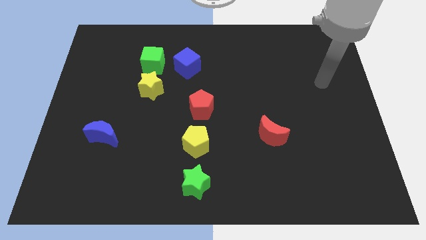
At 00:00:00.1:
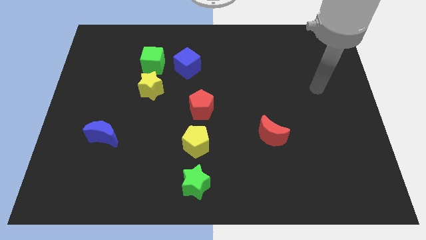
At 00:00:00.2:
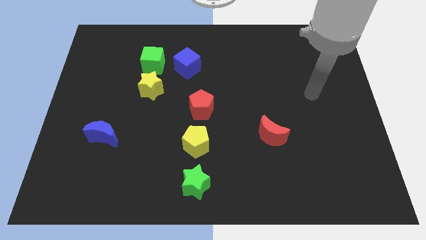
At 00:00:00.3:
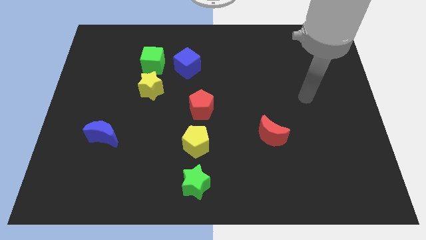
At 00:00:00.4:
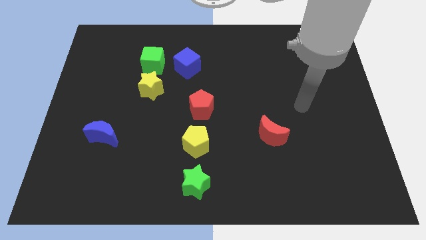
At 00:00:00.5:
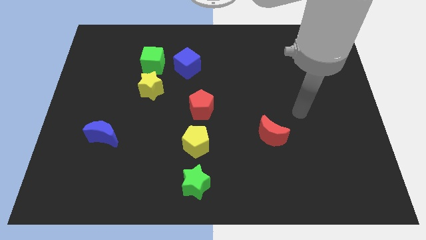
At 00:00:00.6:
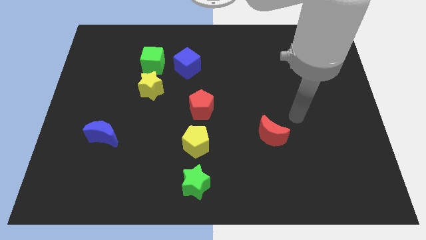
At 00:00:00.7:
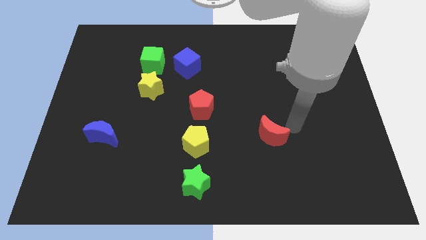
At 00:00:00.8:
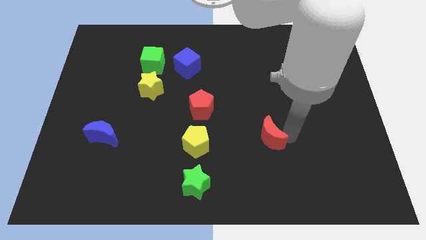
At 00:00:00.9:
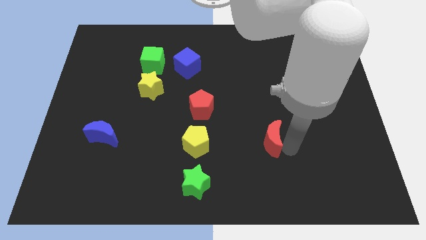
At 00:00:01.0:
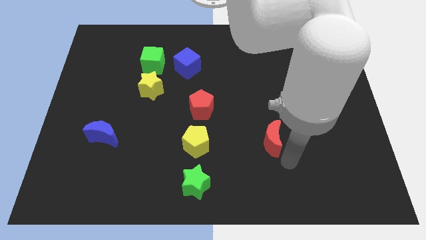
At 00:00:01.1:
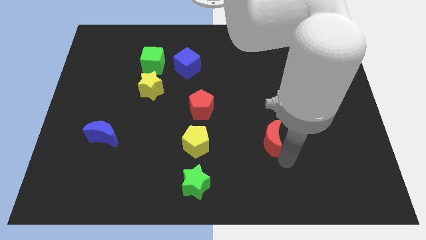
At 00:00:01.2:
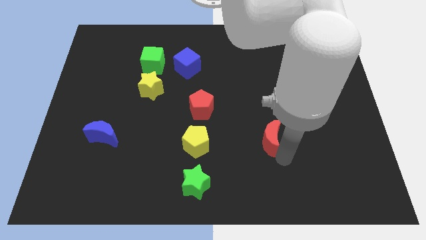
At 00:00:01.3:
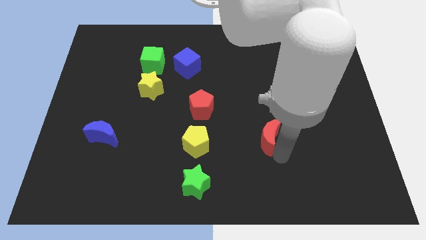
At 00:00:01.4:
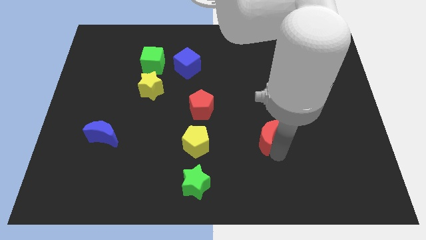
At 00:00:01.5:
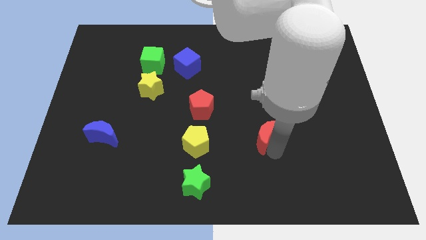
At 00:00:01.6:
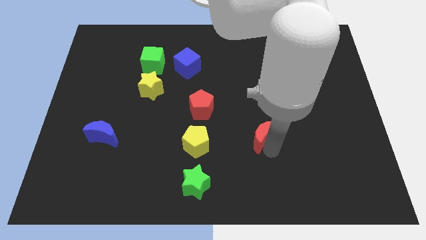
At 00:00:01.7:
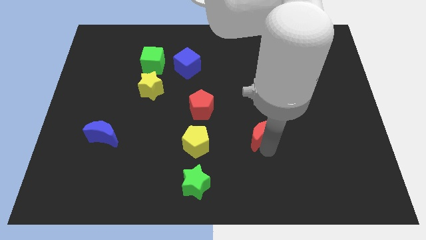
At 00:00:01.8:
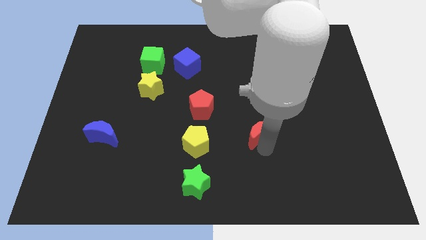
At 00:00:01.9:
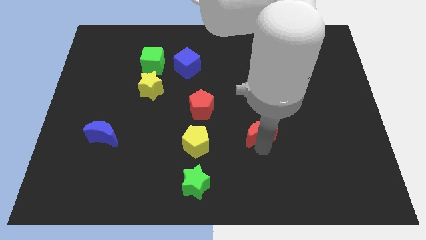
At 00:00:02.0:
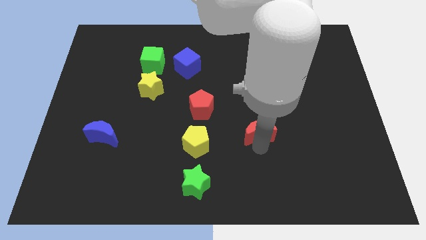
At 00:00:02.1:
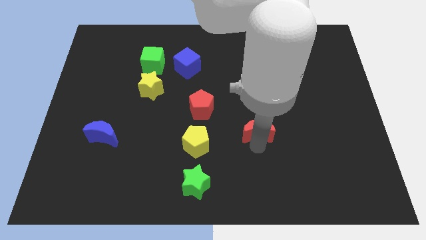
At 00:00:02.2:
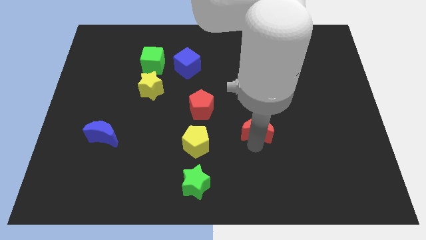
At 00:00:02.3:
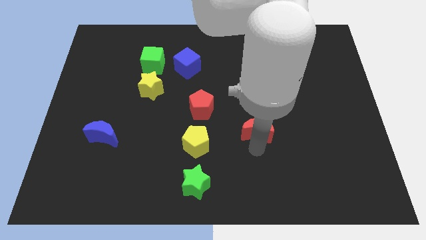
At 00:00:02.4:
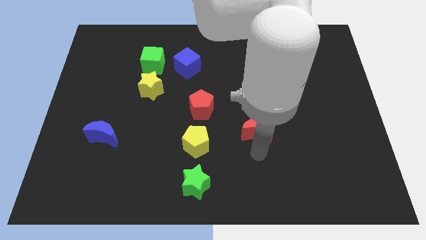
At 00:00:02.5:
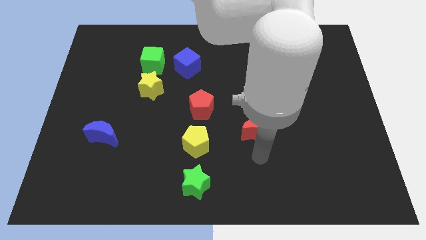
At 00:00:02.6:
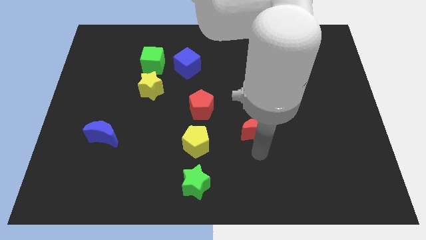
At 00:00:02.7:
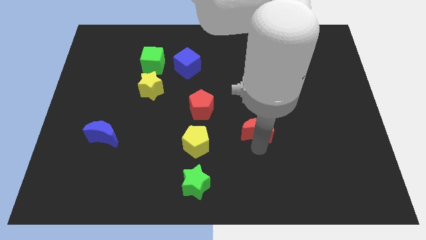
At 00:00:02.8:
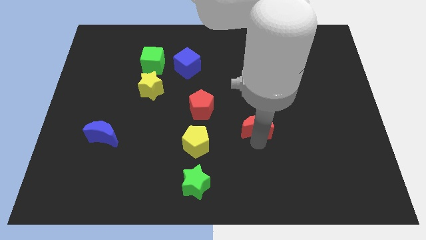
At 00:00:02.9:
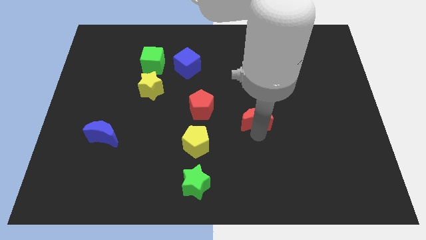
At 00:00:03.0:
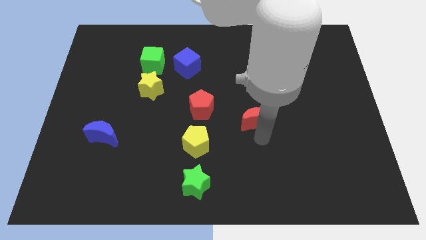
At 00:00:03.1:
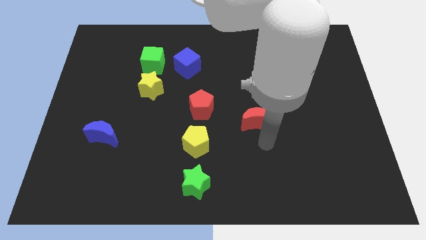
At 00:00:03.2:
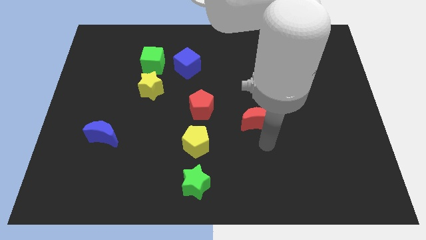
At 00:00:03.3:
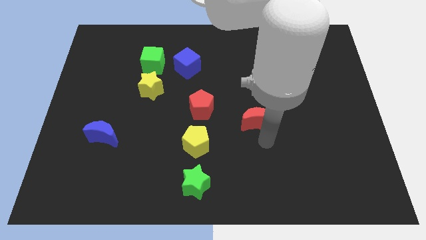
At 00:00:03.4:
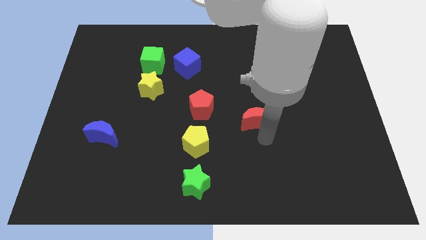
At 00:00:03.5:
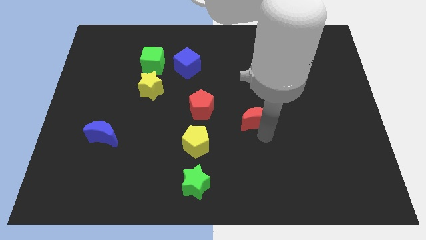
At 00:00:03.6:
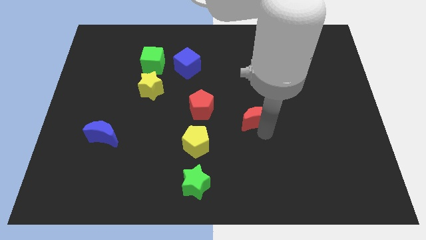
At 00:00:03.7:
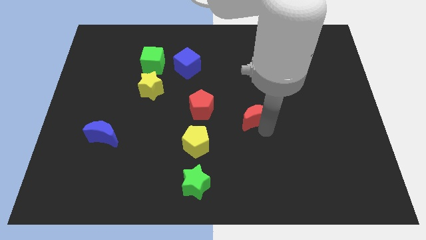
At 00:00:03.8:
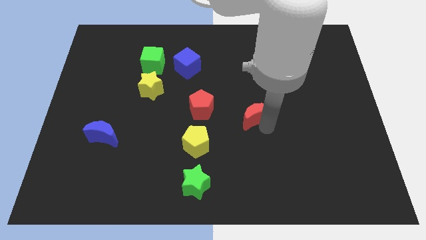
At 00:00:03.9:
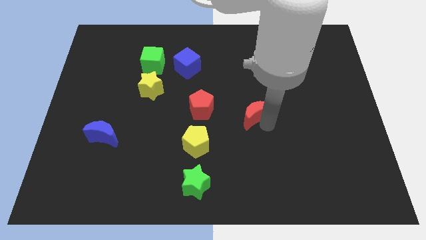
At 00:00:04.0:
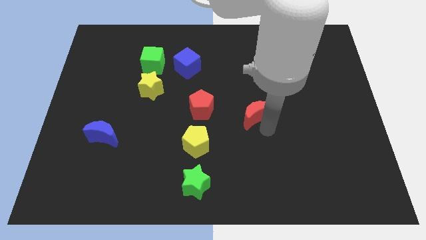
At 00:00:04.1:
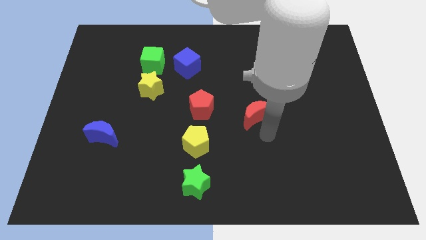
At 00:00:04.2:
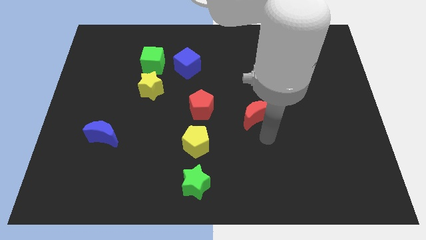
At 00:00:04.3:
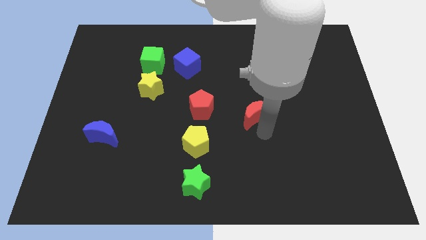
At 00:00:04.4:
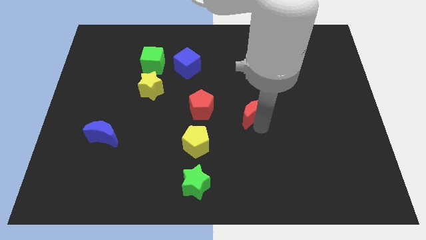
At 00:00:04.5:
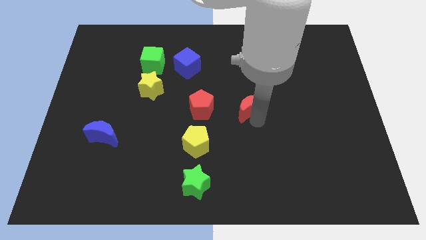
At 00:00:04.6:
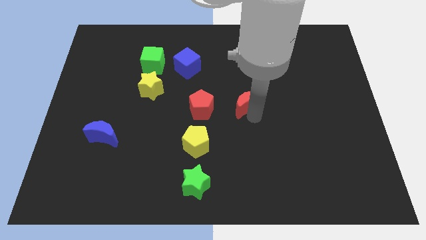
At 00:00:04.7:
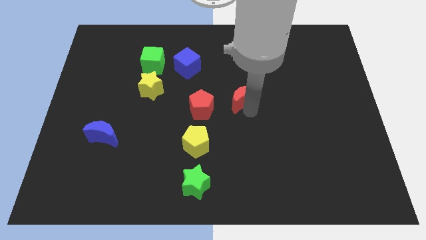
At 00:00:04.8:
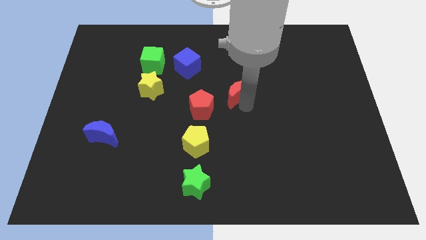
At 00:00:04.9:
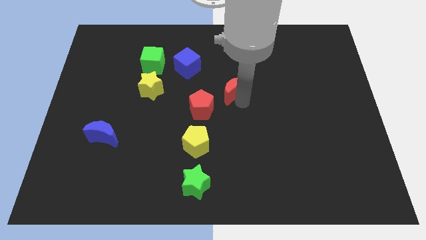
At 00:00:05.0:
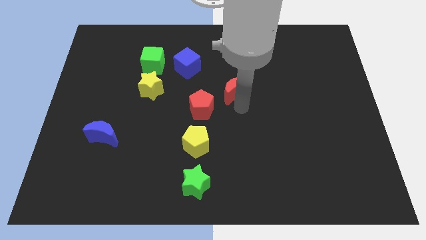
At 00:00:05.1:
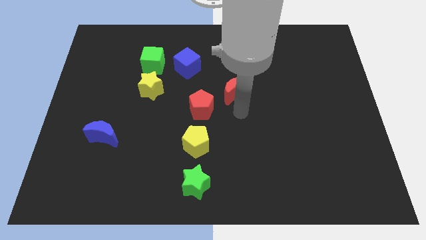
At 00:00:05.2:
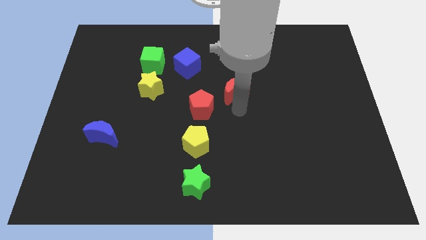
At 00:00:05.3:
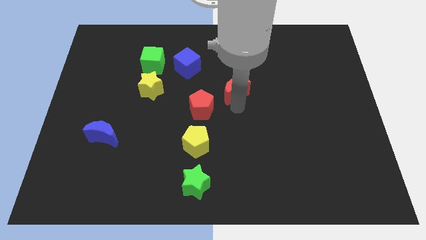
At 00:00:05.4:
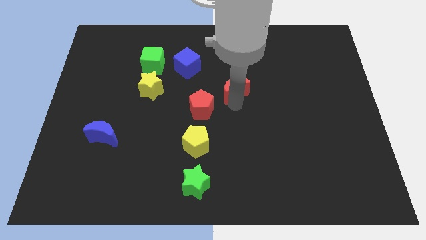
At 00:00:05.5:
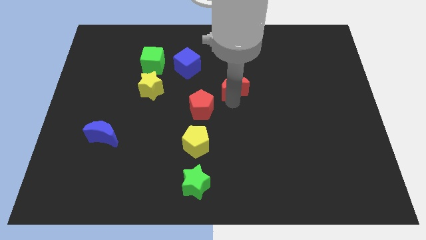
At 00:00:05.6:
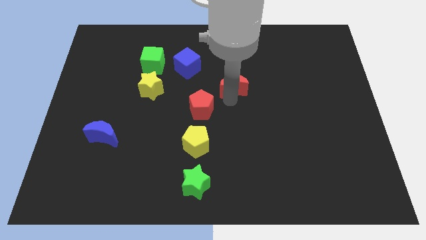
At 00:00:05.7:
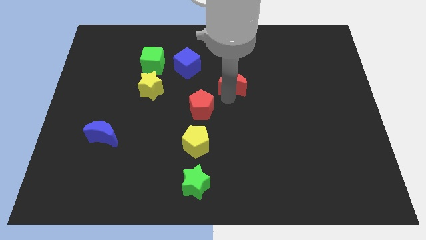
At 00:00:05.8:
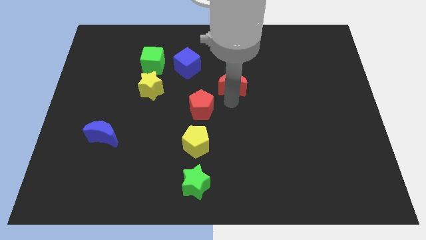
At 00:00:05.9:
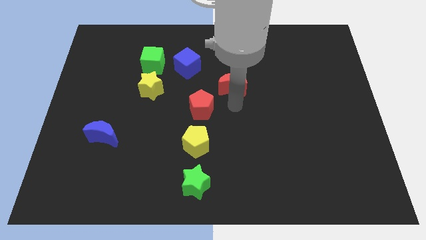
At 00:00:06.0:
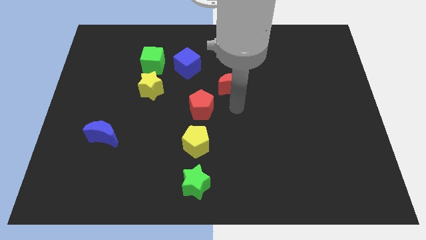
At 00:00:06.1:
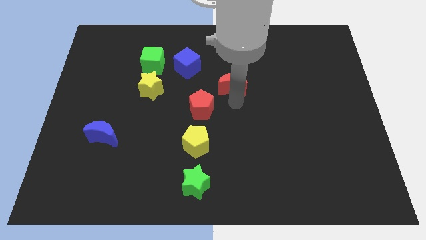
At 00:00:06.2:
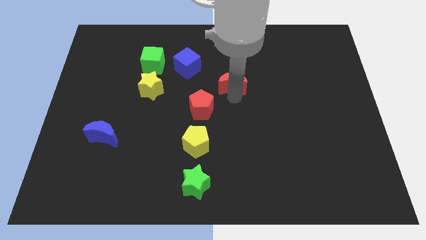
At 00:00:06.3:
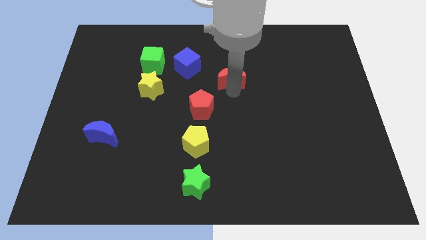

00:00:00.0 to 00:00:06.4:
move the red moon right of the blue cube

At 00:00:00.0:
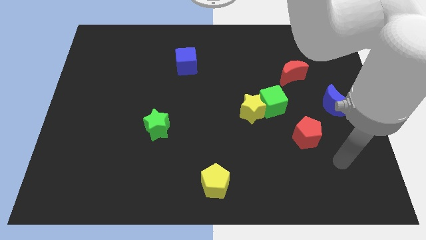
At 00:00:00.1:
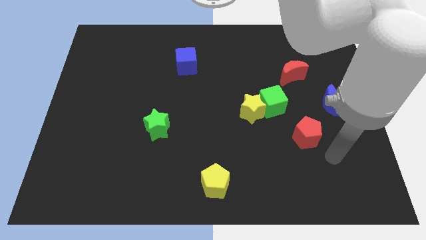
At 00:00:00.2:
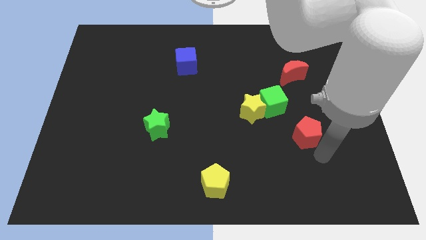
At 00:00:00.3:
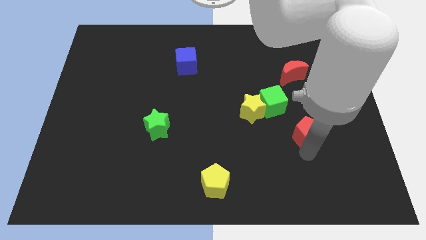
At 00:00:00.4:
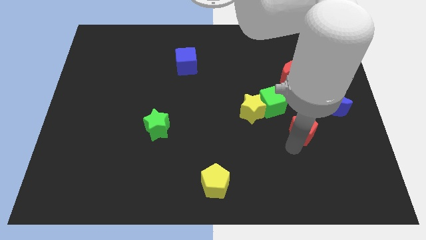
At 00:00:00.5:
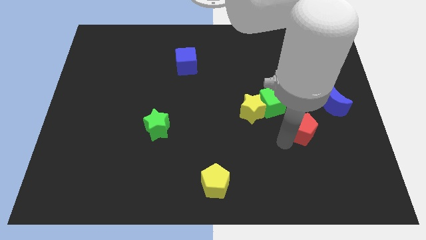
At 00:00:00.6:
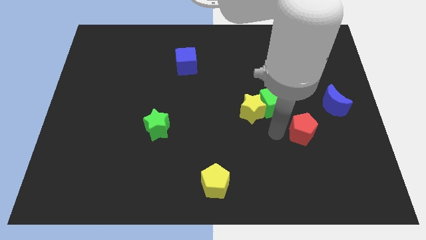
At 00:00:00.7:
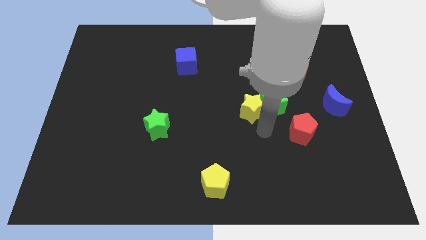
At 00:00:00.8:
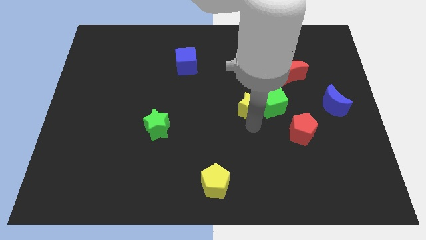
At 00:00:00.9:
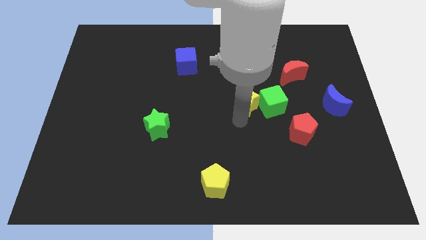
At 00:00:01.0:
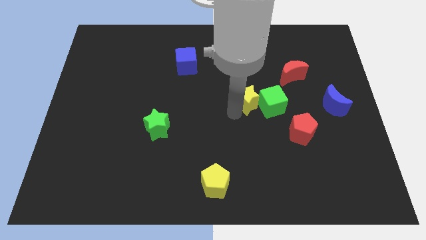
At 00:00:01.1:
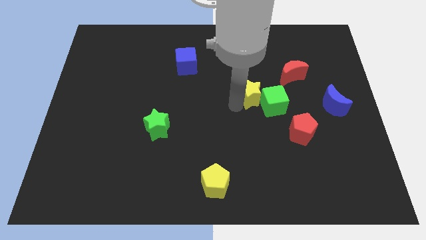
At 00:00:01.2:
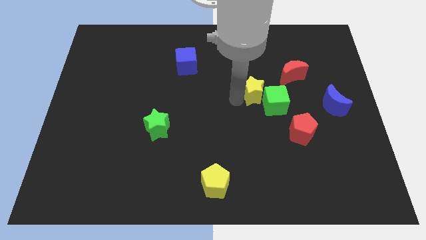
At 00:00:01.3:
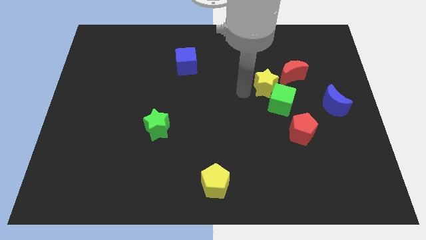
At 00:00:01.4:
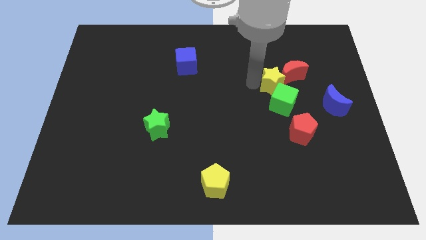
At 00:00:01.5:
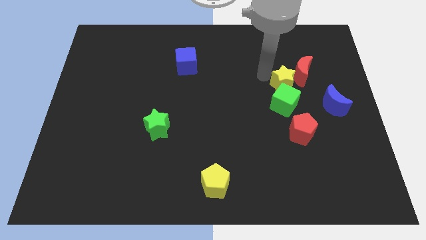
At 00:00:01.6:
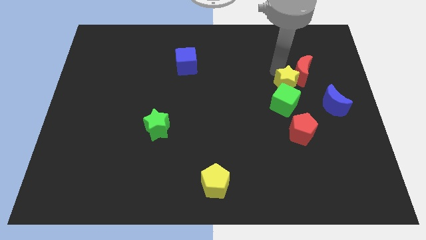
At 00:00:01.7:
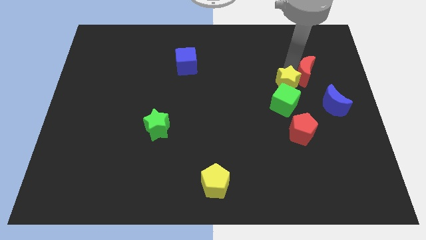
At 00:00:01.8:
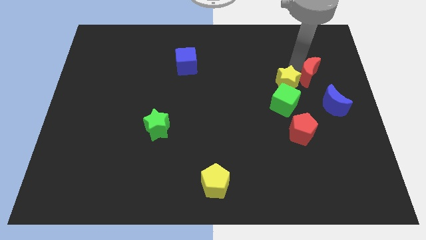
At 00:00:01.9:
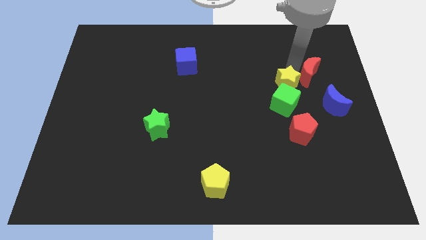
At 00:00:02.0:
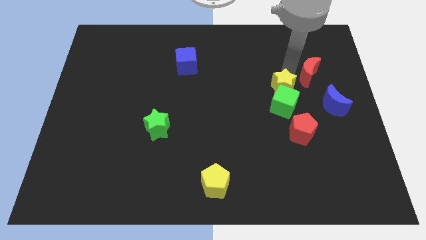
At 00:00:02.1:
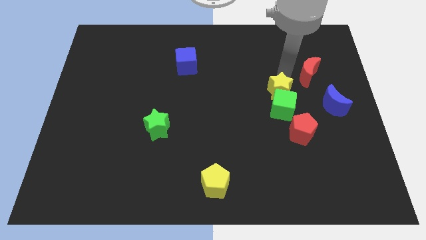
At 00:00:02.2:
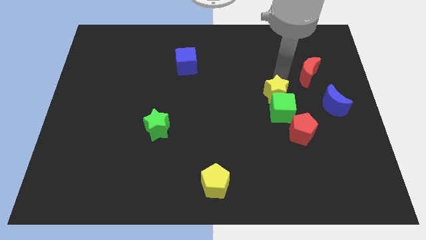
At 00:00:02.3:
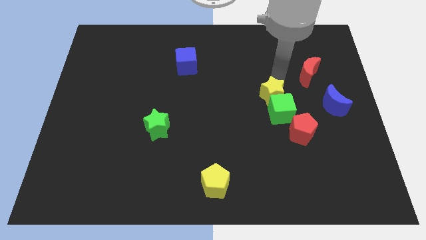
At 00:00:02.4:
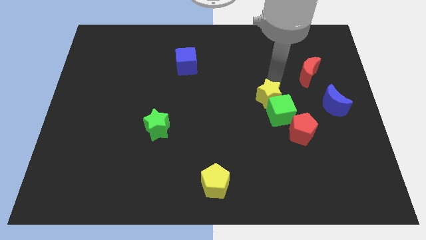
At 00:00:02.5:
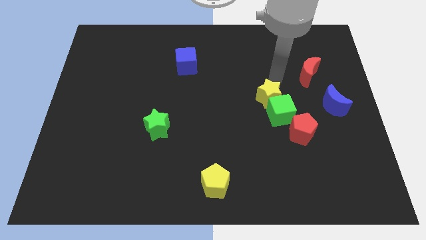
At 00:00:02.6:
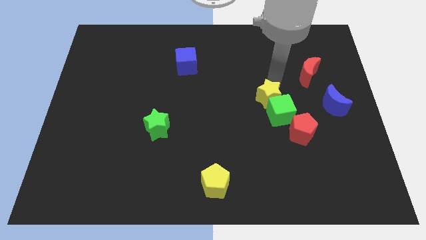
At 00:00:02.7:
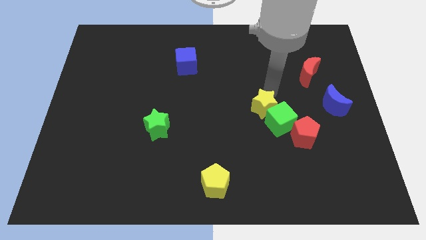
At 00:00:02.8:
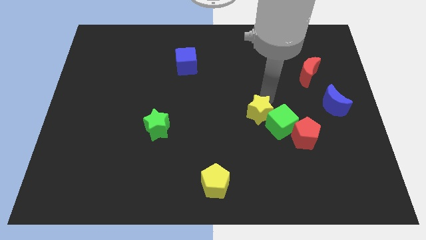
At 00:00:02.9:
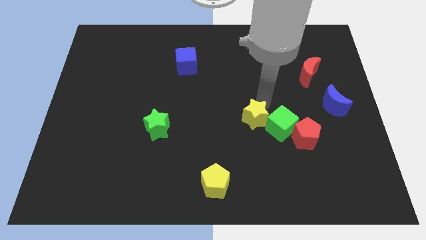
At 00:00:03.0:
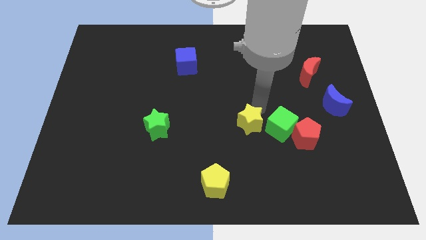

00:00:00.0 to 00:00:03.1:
move the yellow star to the left of the red pentagon
